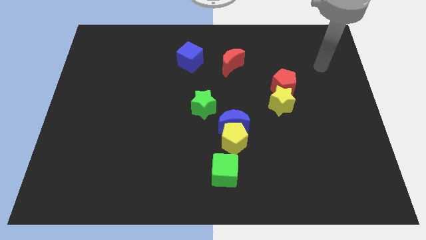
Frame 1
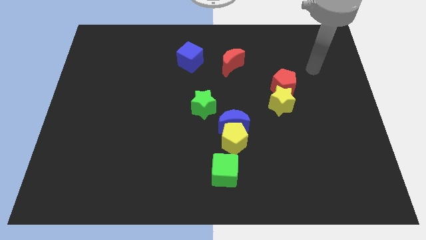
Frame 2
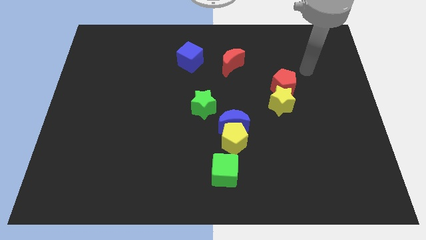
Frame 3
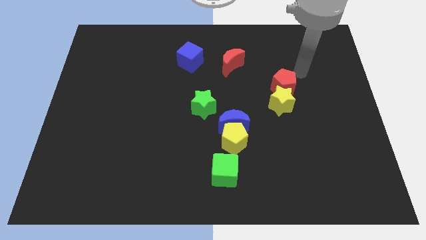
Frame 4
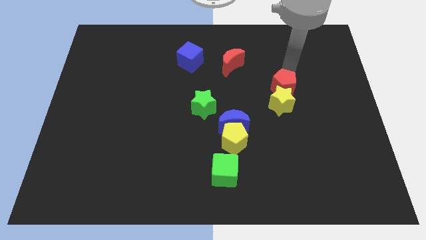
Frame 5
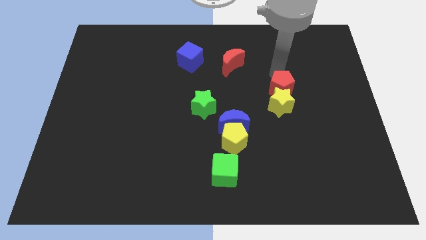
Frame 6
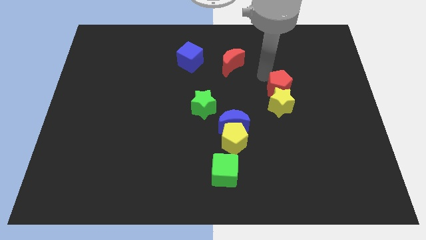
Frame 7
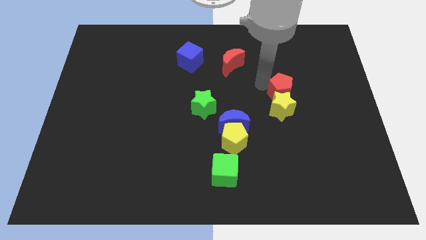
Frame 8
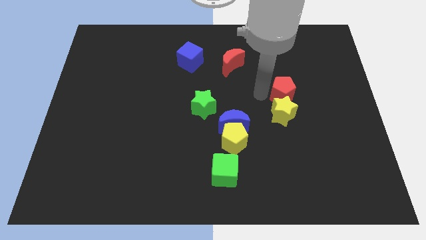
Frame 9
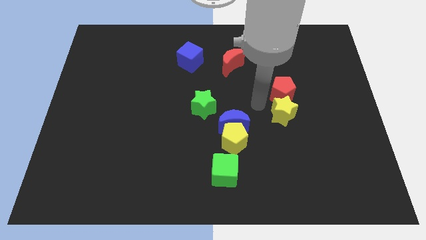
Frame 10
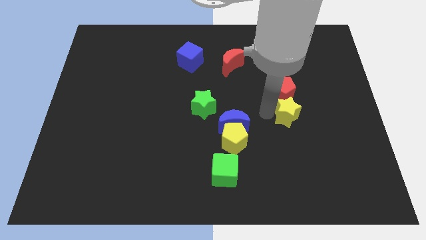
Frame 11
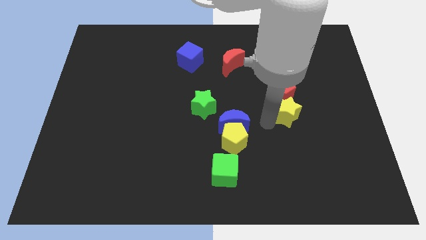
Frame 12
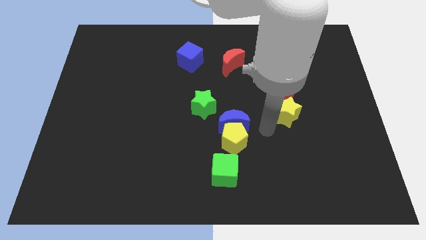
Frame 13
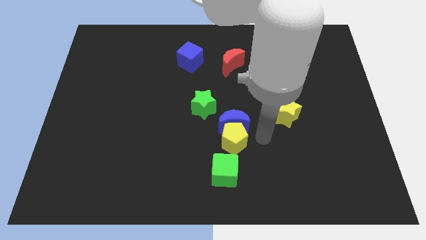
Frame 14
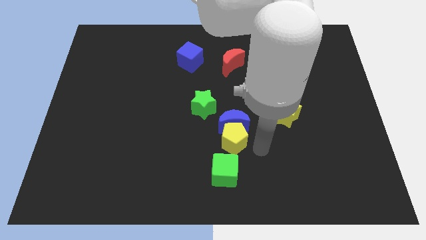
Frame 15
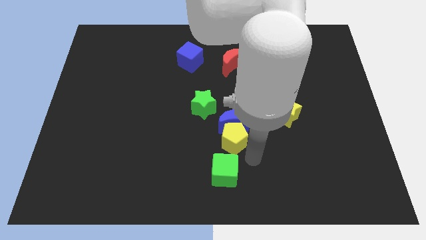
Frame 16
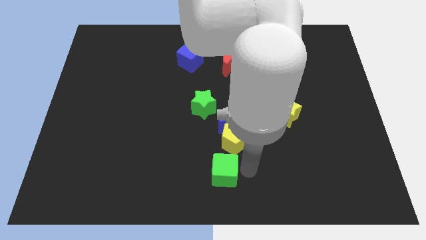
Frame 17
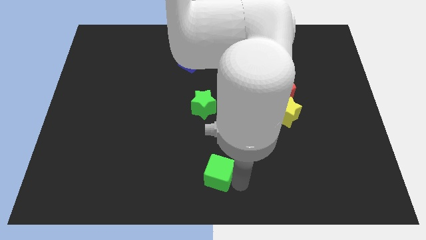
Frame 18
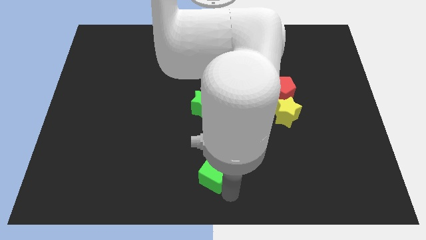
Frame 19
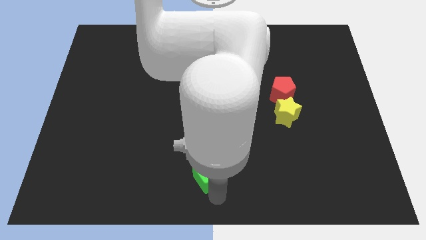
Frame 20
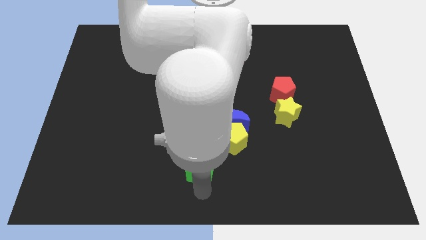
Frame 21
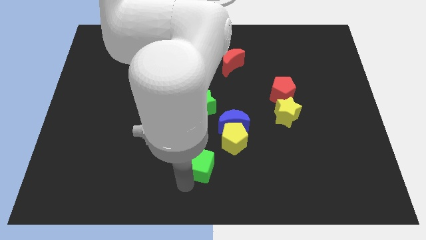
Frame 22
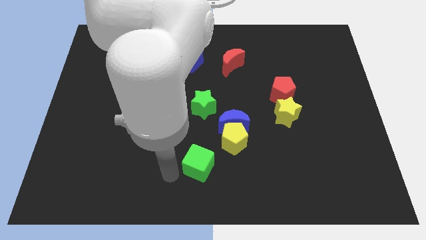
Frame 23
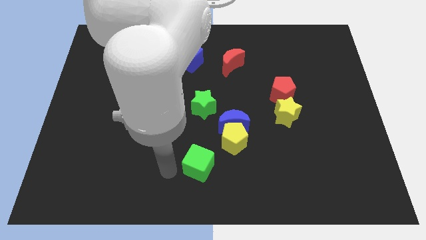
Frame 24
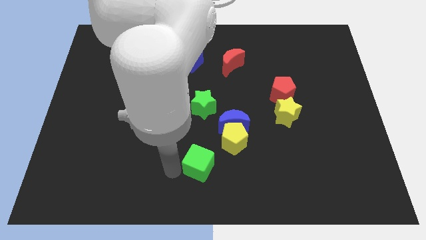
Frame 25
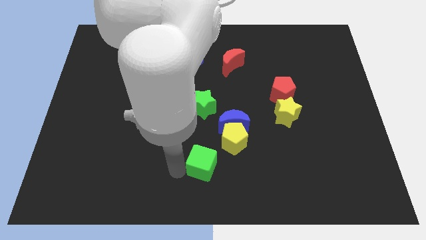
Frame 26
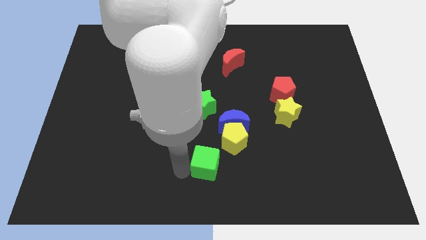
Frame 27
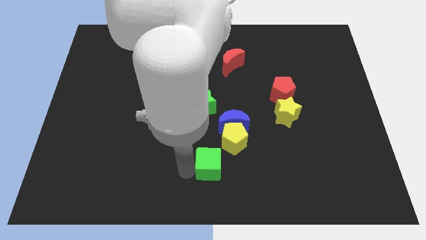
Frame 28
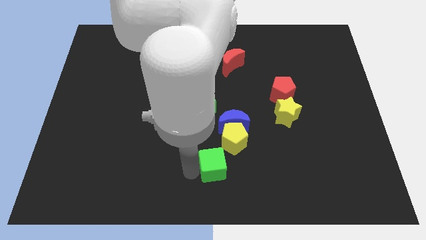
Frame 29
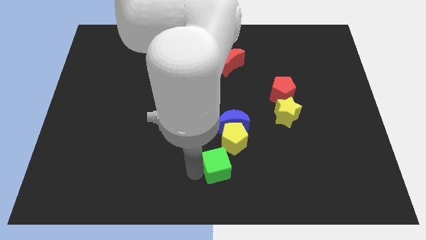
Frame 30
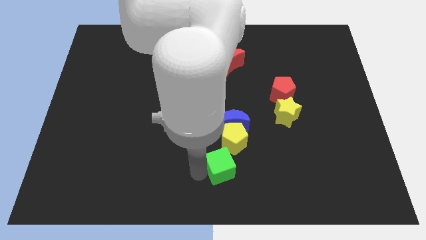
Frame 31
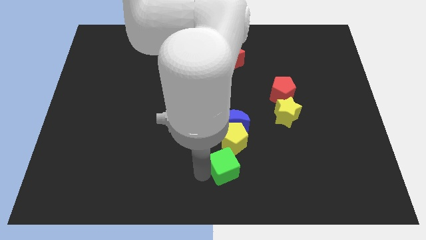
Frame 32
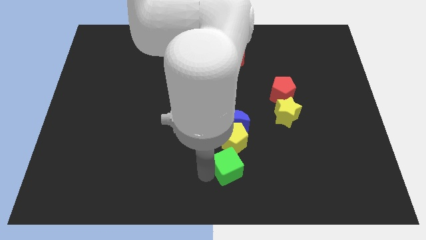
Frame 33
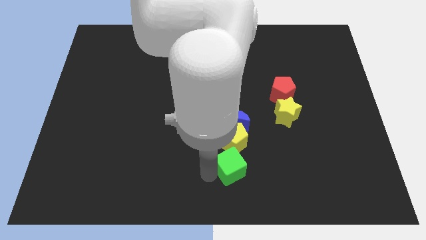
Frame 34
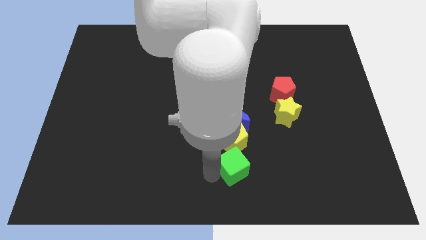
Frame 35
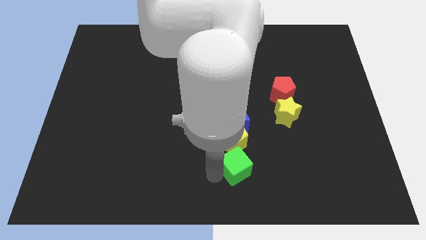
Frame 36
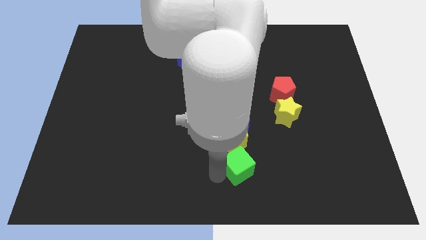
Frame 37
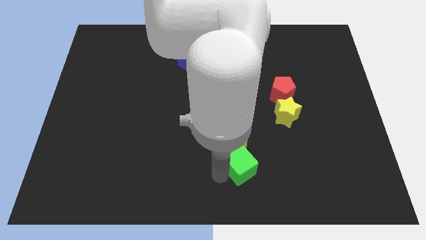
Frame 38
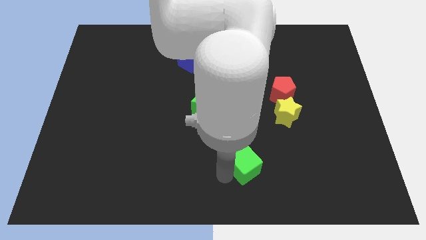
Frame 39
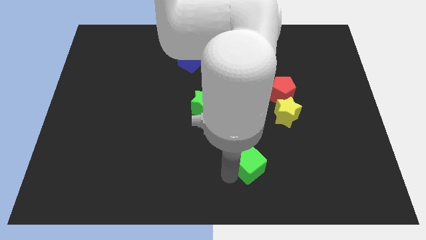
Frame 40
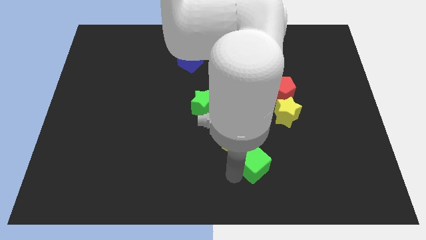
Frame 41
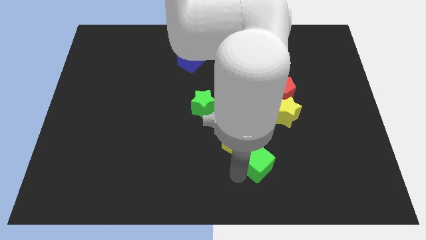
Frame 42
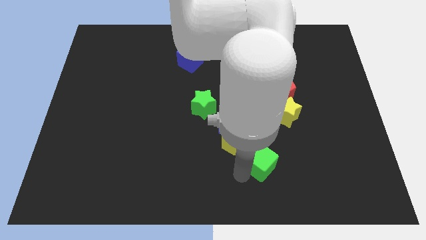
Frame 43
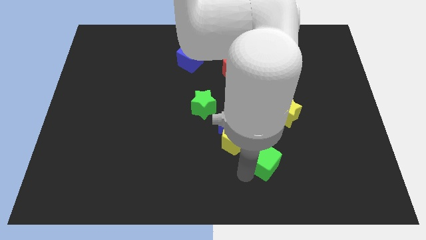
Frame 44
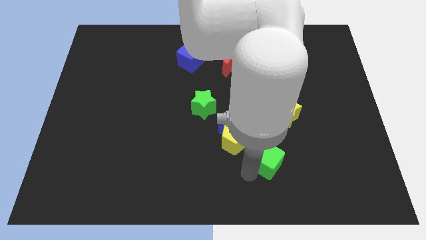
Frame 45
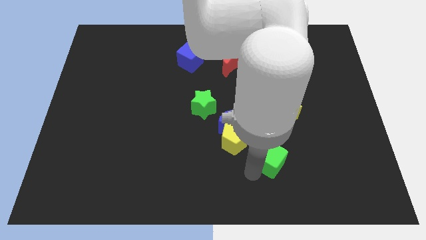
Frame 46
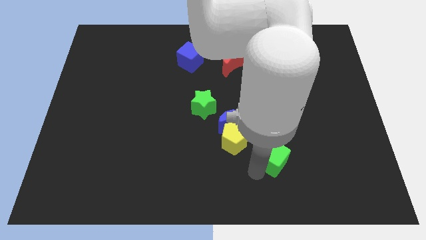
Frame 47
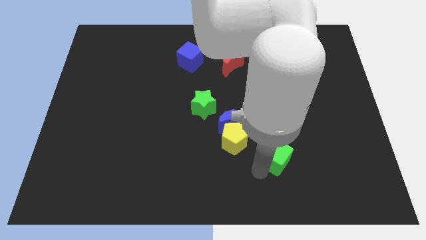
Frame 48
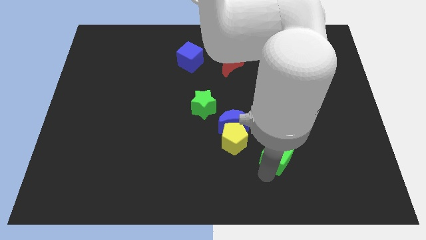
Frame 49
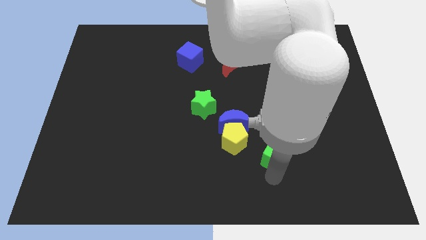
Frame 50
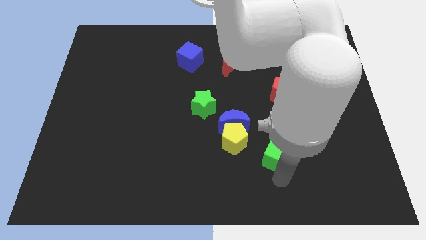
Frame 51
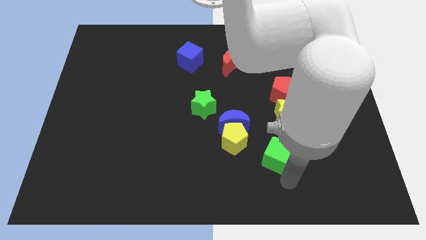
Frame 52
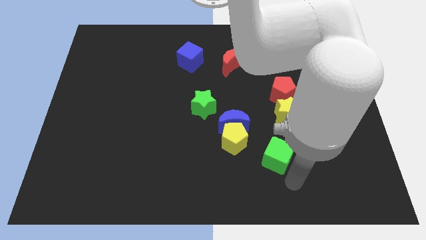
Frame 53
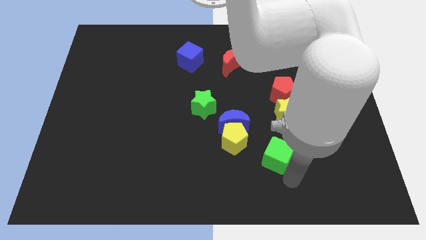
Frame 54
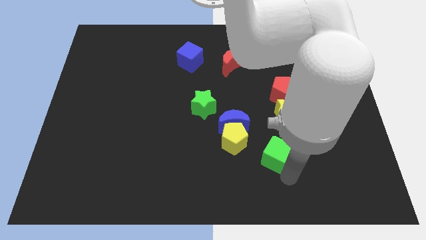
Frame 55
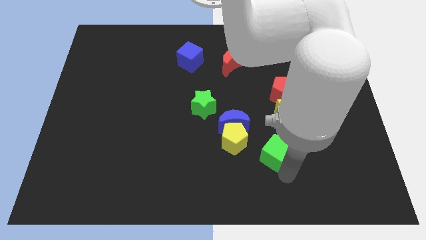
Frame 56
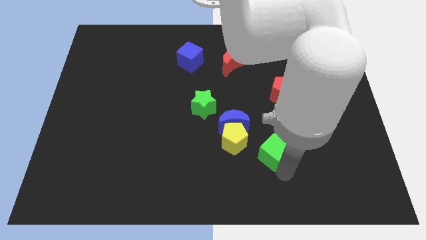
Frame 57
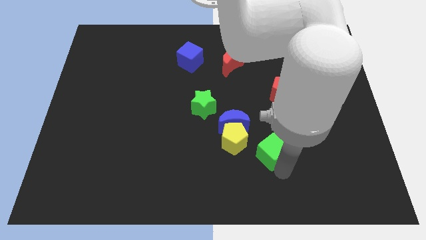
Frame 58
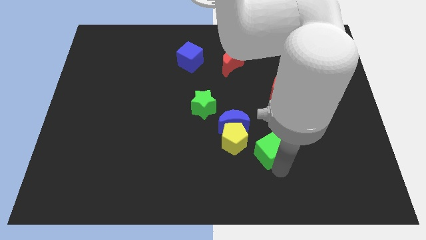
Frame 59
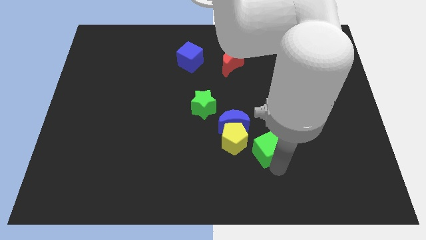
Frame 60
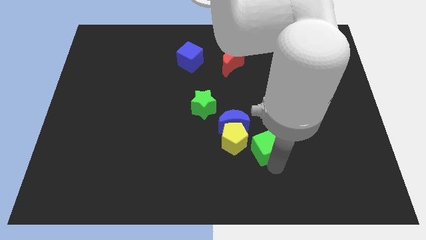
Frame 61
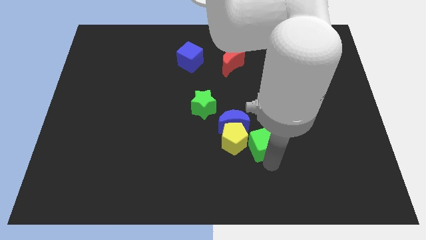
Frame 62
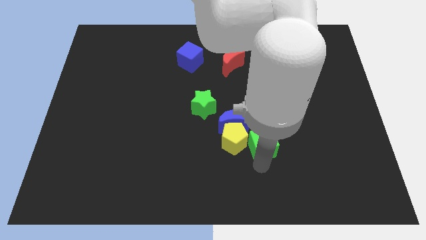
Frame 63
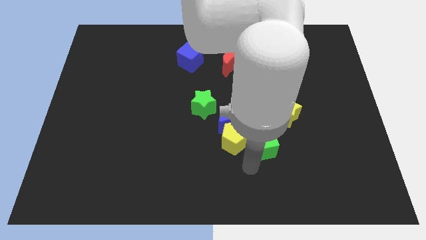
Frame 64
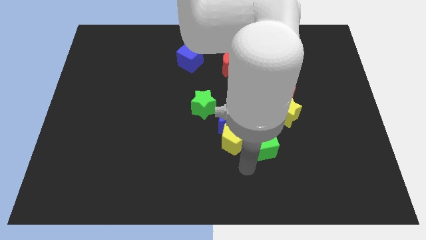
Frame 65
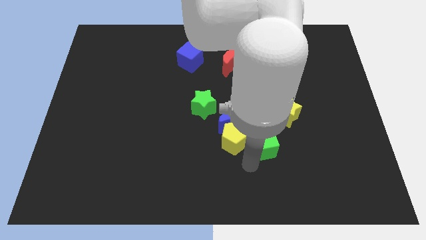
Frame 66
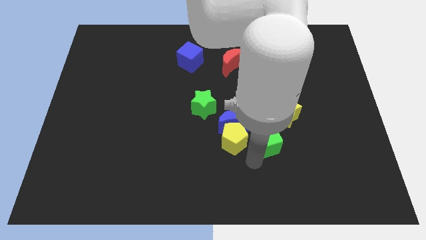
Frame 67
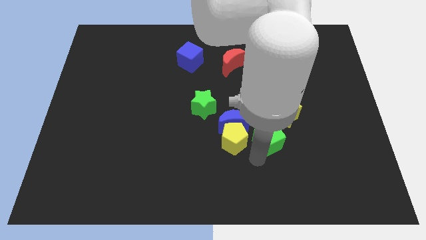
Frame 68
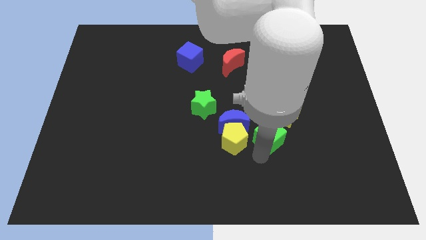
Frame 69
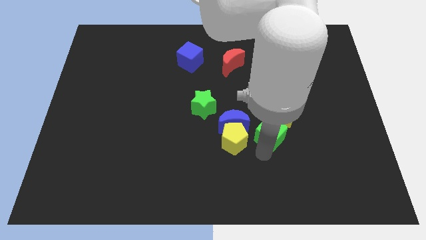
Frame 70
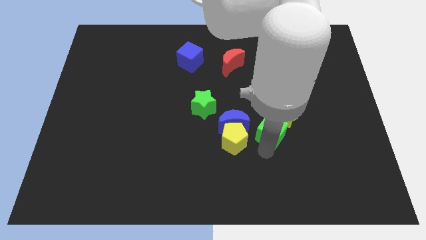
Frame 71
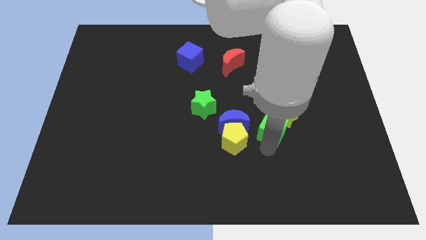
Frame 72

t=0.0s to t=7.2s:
move the green cube next to the yellow star
